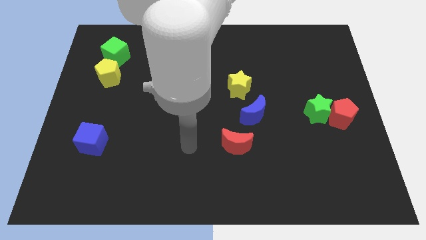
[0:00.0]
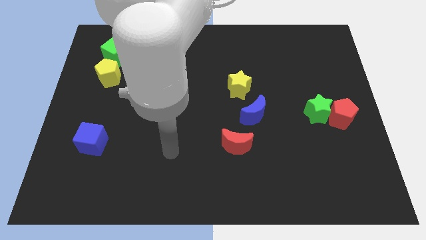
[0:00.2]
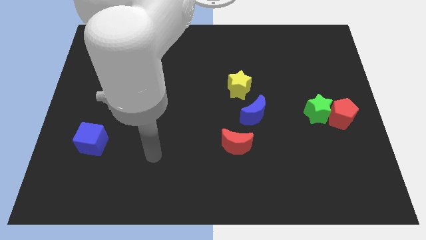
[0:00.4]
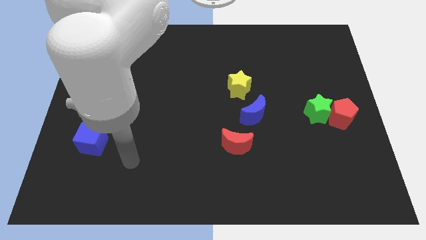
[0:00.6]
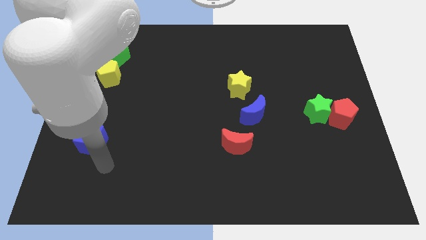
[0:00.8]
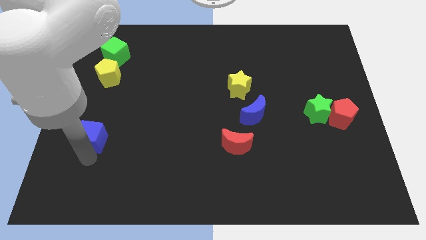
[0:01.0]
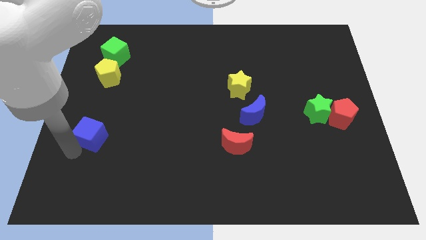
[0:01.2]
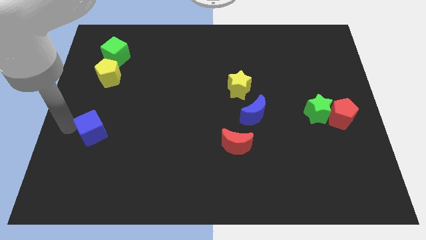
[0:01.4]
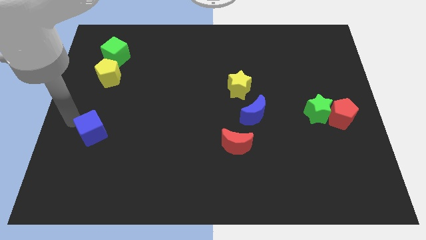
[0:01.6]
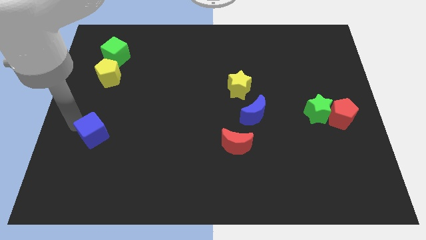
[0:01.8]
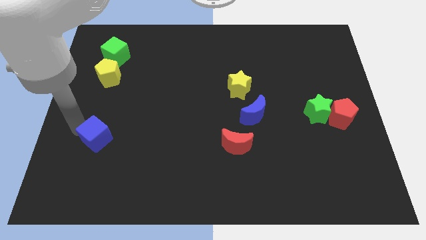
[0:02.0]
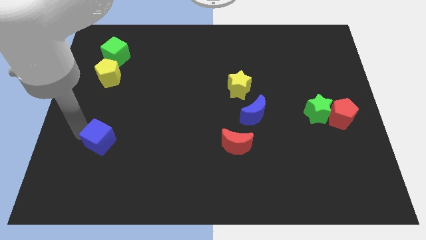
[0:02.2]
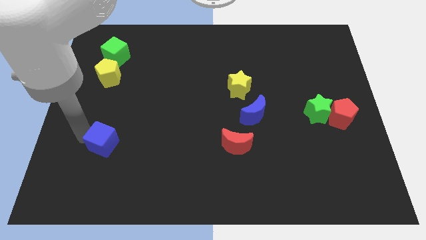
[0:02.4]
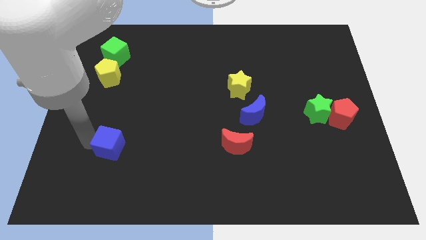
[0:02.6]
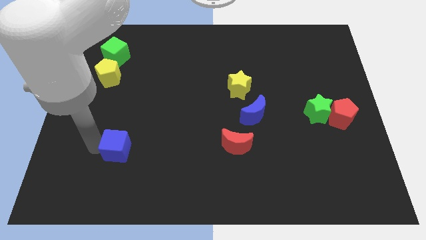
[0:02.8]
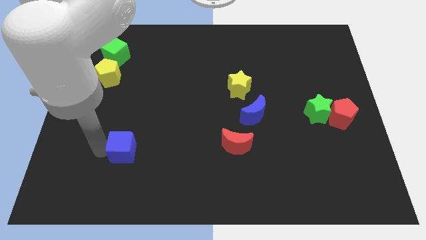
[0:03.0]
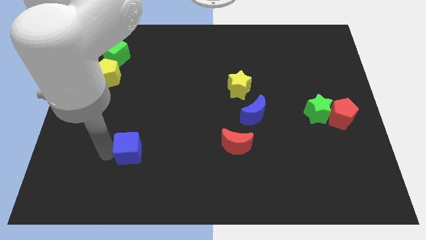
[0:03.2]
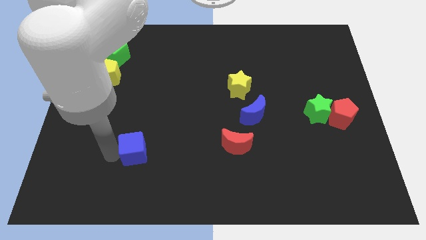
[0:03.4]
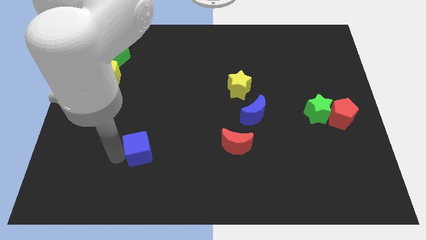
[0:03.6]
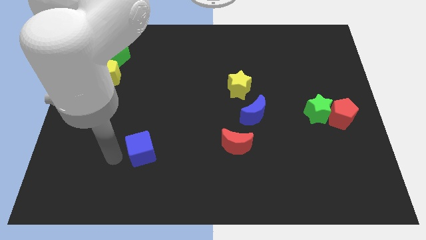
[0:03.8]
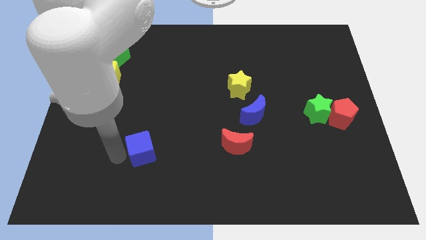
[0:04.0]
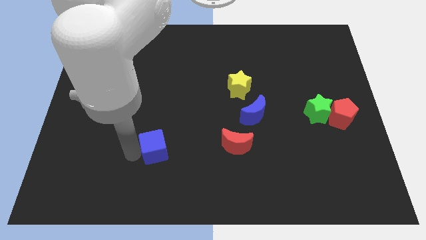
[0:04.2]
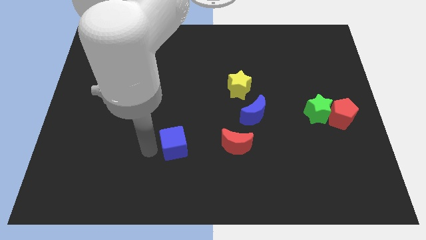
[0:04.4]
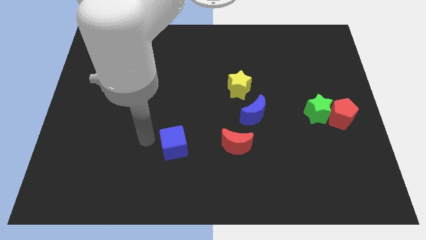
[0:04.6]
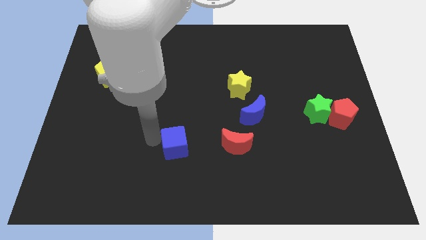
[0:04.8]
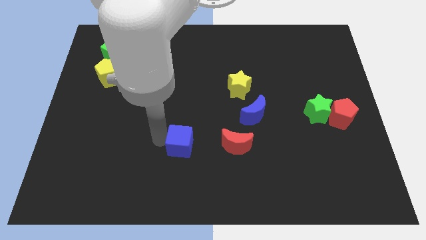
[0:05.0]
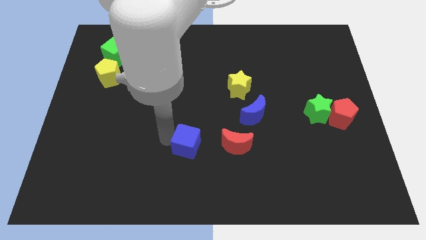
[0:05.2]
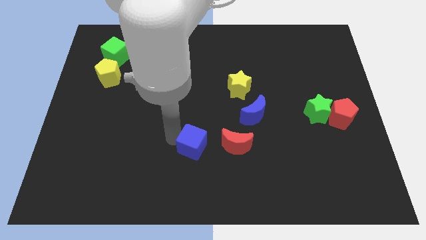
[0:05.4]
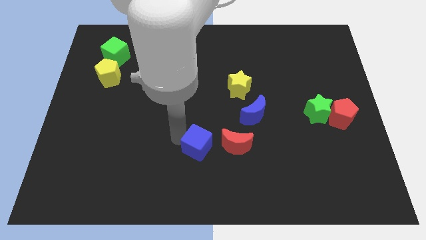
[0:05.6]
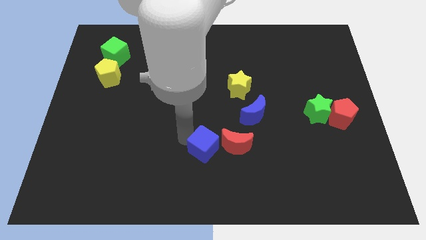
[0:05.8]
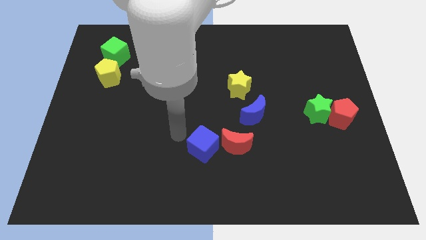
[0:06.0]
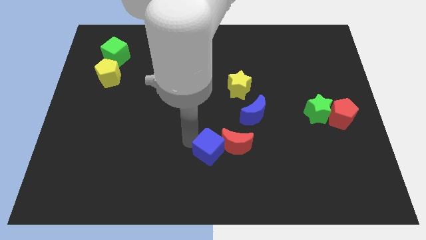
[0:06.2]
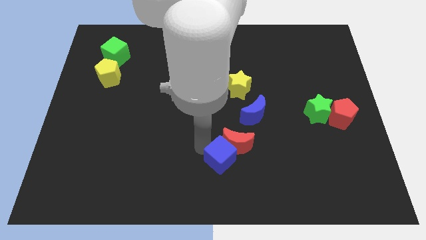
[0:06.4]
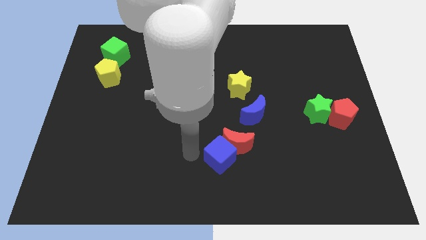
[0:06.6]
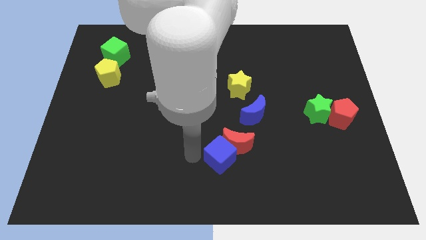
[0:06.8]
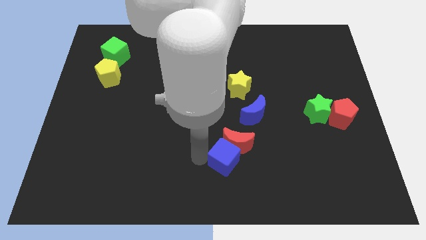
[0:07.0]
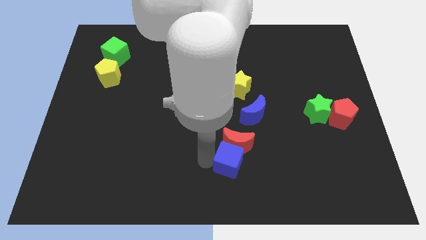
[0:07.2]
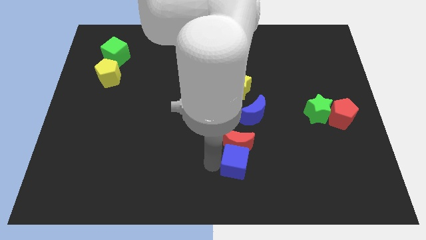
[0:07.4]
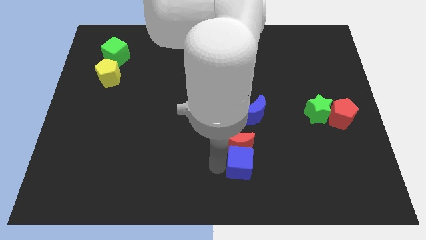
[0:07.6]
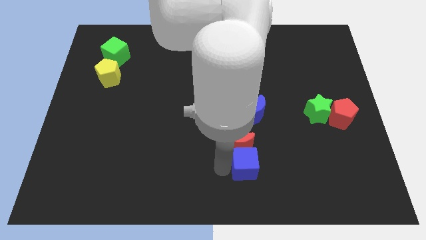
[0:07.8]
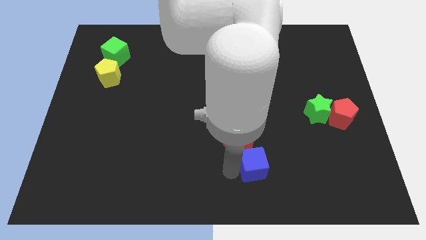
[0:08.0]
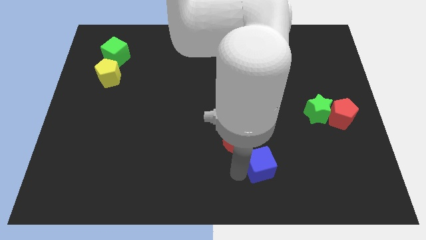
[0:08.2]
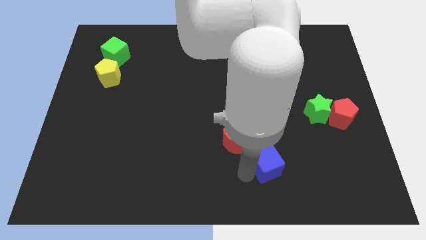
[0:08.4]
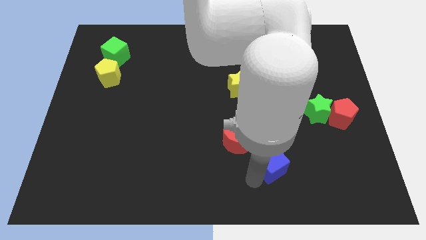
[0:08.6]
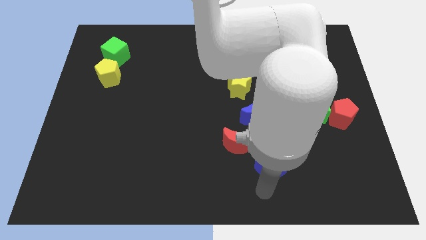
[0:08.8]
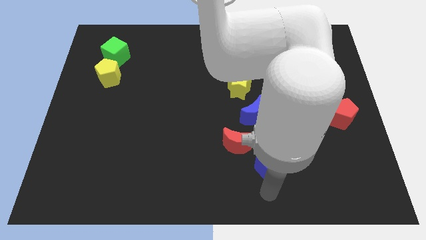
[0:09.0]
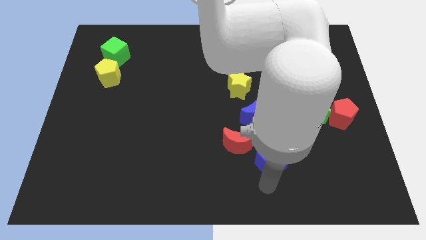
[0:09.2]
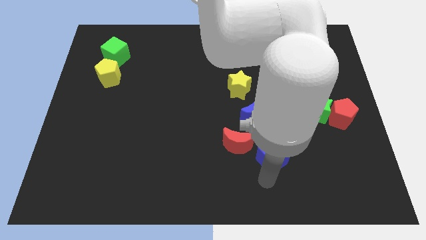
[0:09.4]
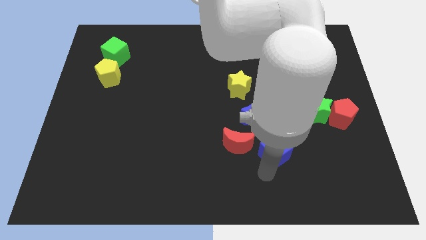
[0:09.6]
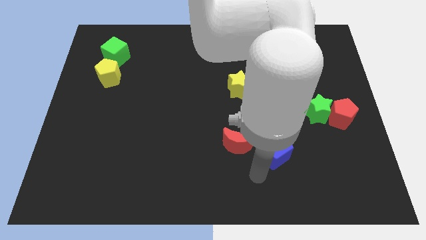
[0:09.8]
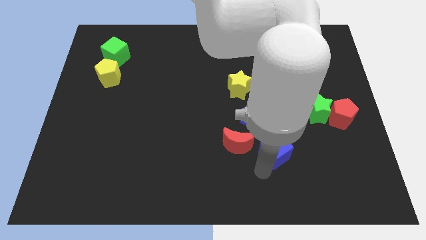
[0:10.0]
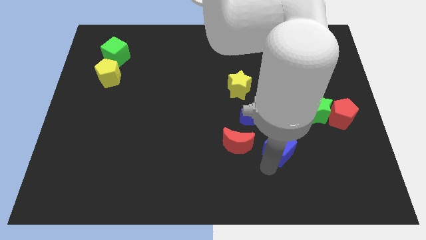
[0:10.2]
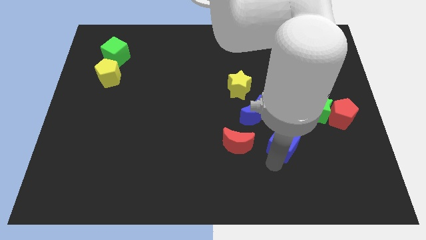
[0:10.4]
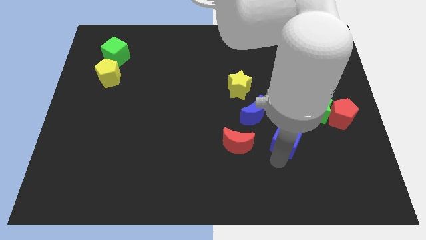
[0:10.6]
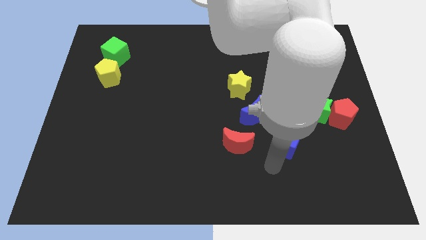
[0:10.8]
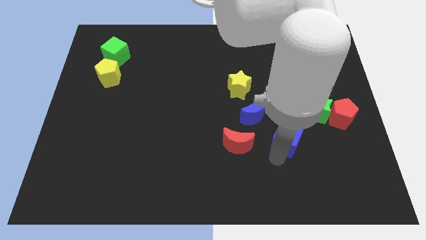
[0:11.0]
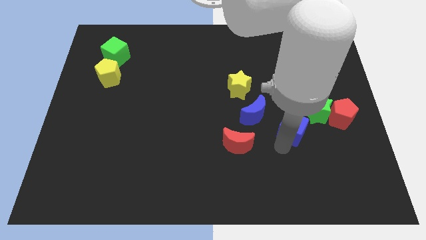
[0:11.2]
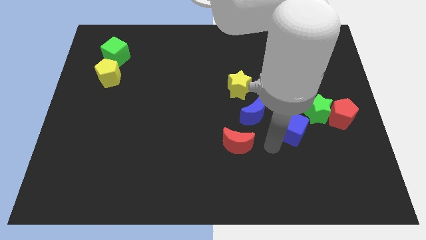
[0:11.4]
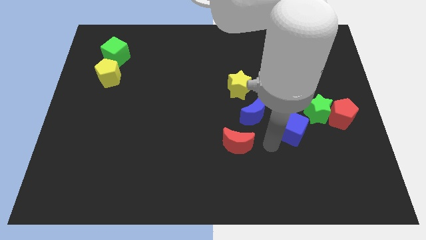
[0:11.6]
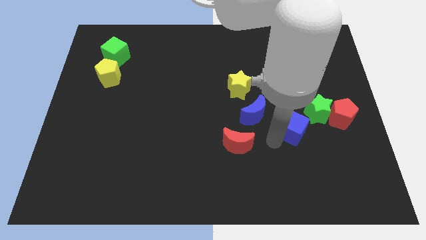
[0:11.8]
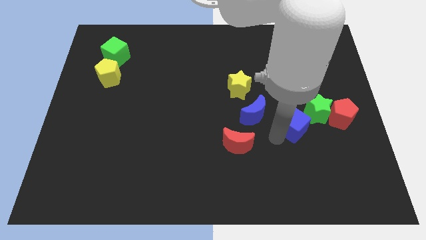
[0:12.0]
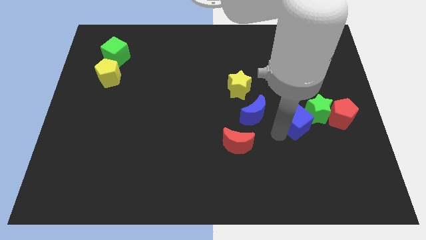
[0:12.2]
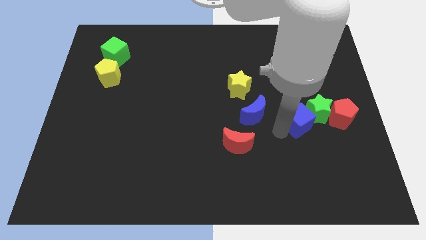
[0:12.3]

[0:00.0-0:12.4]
put the blue cube next to the green star

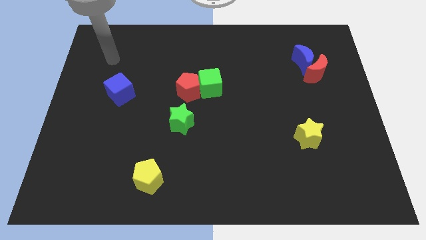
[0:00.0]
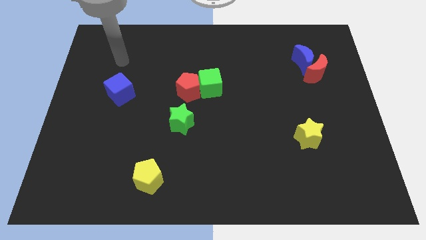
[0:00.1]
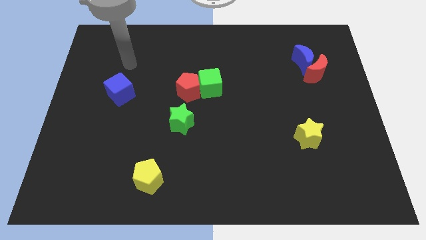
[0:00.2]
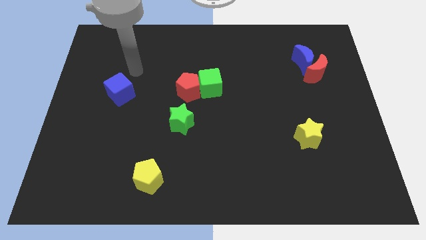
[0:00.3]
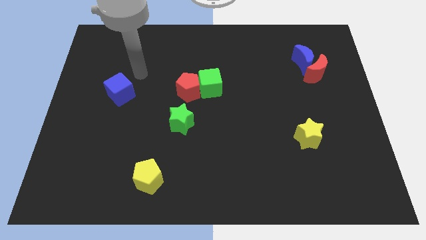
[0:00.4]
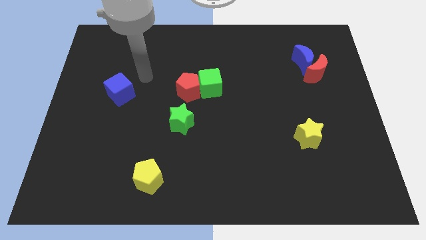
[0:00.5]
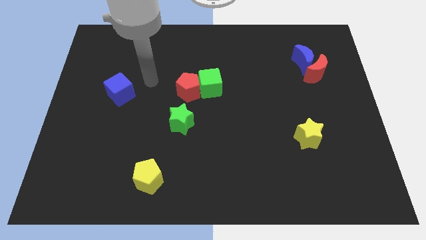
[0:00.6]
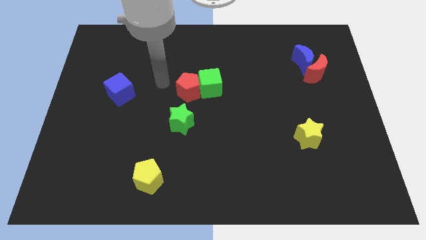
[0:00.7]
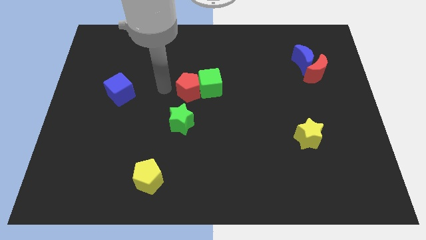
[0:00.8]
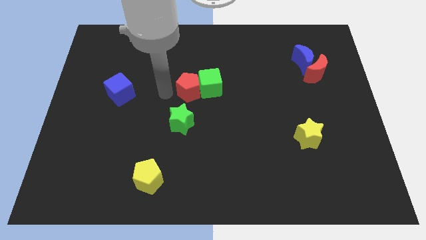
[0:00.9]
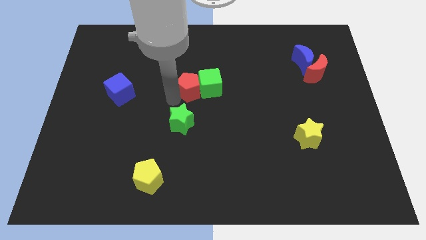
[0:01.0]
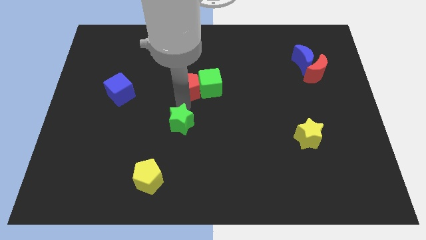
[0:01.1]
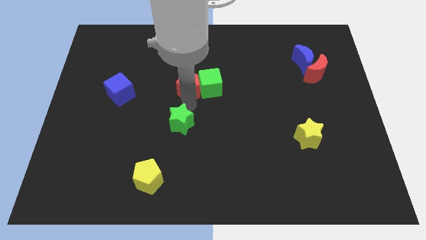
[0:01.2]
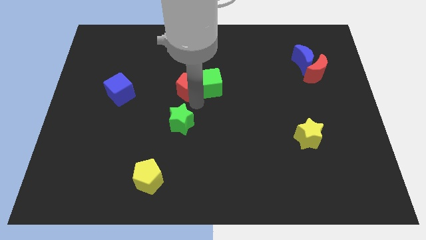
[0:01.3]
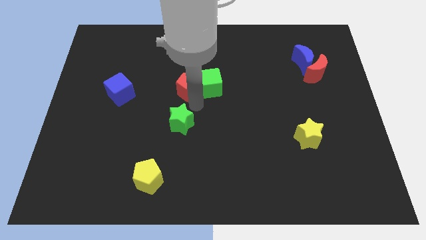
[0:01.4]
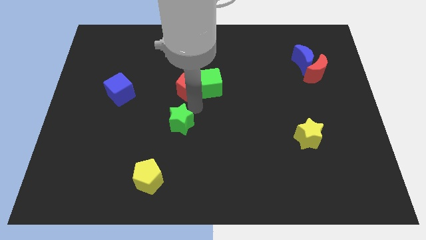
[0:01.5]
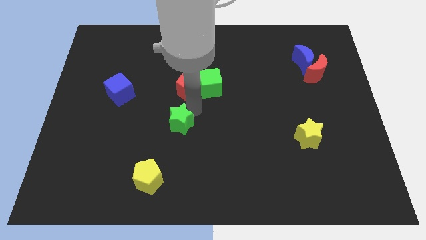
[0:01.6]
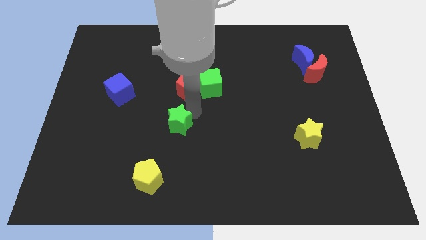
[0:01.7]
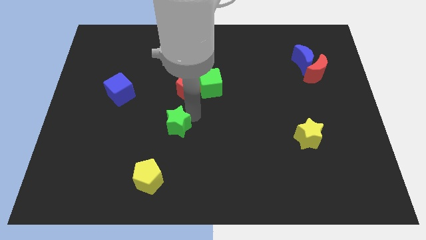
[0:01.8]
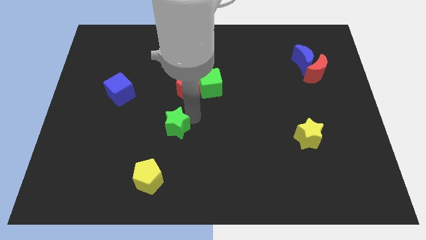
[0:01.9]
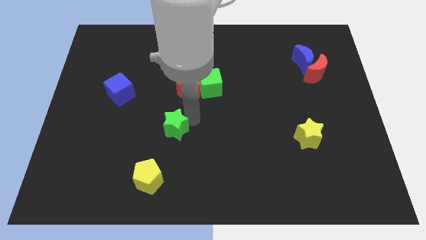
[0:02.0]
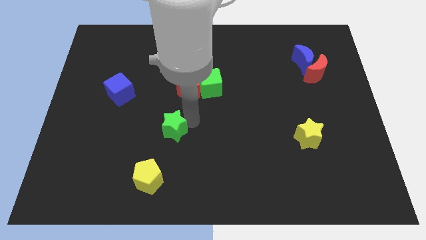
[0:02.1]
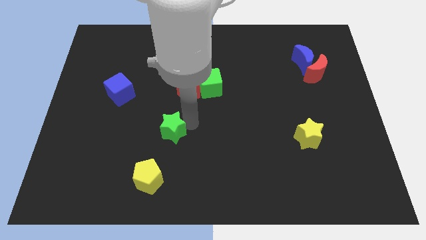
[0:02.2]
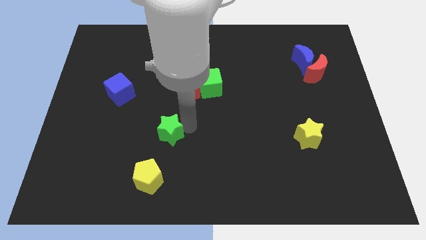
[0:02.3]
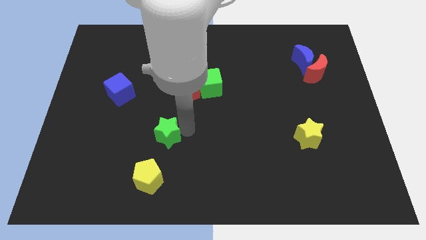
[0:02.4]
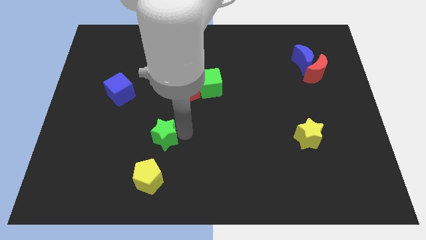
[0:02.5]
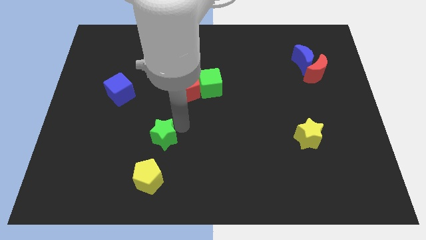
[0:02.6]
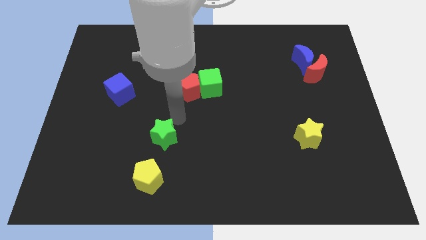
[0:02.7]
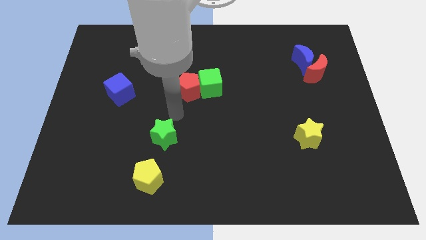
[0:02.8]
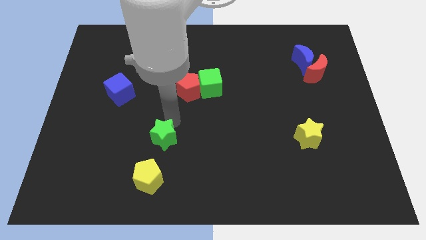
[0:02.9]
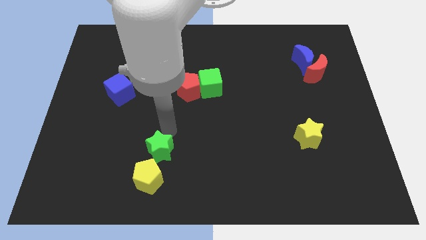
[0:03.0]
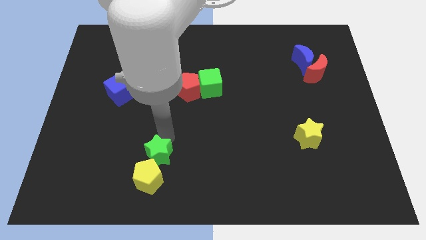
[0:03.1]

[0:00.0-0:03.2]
put the green star towards the yellow pentagon
